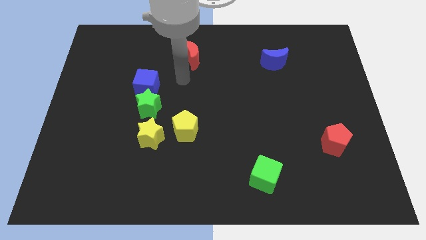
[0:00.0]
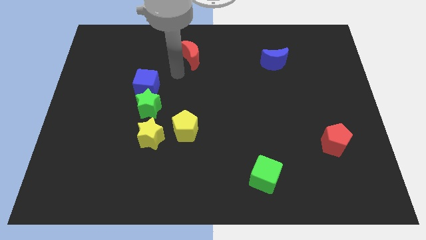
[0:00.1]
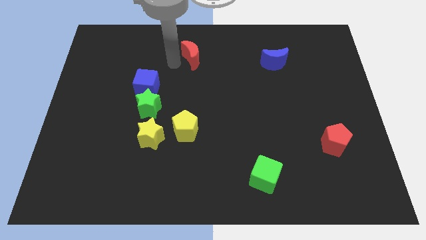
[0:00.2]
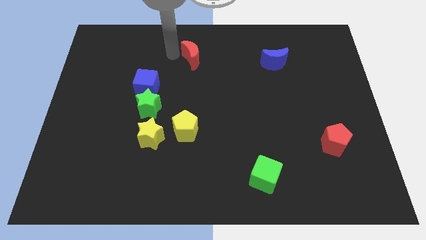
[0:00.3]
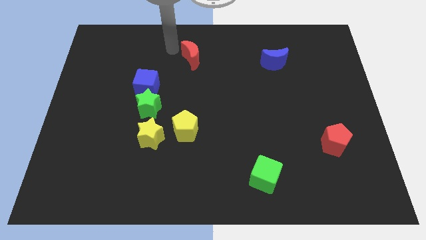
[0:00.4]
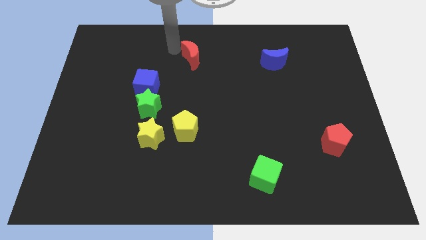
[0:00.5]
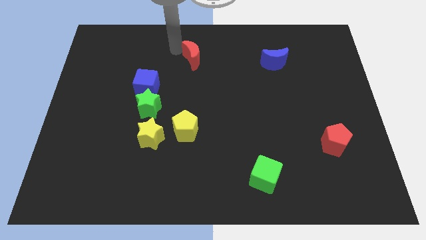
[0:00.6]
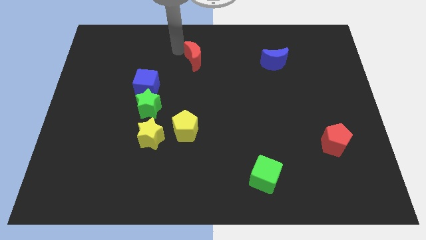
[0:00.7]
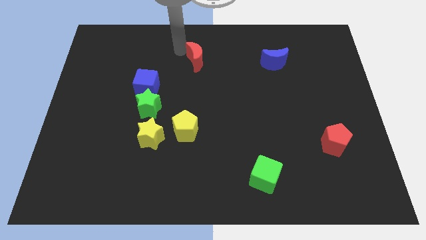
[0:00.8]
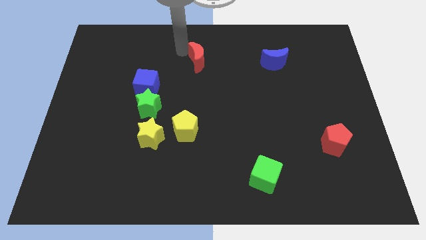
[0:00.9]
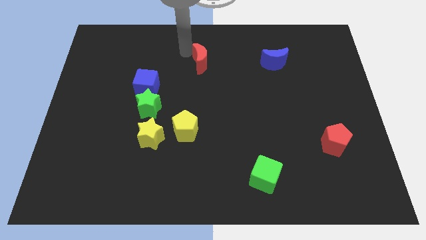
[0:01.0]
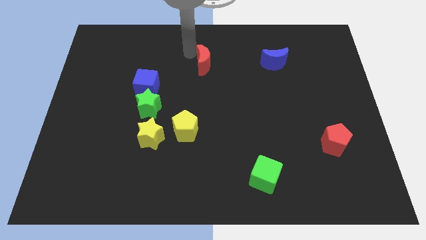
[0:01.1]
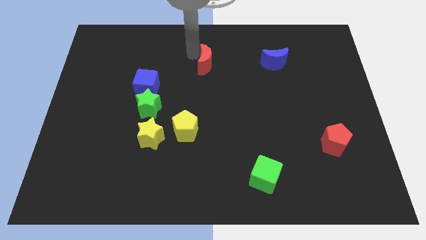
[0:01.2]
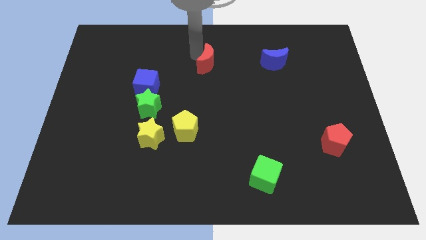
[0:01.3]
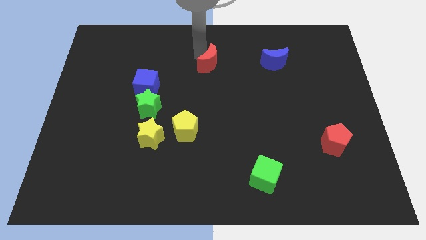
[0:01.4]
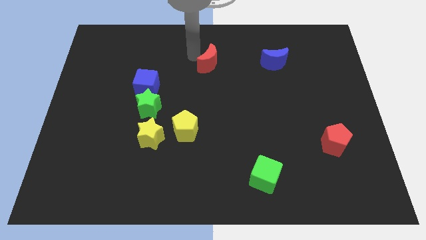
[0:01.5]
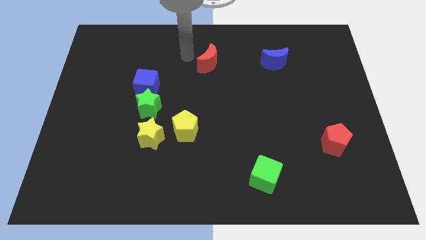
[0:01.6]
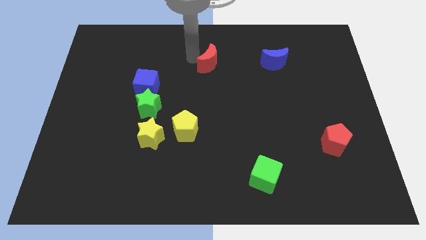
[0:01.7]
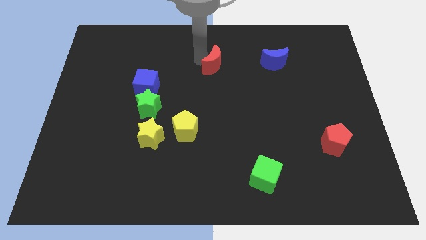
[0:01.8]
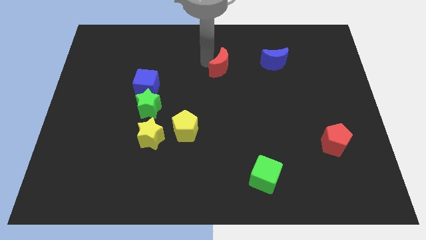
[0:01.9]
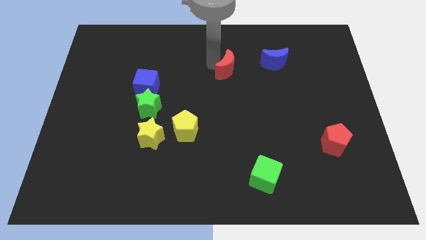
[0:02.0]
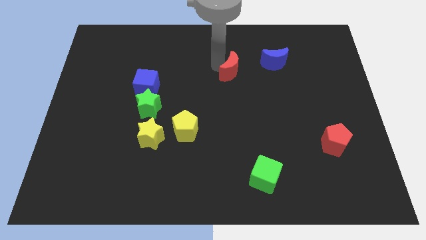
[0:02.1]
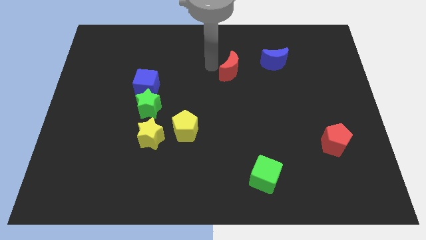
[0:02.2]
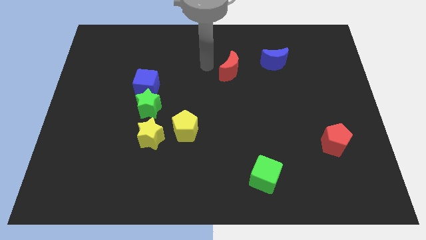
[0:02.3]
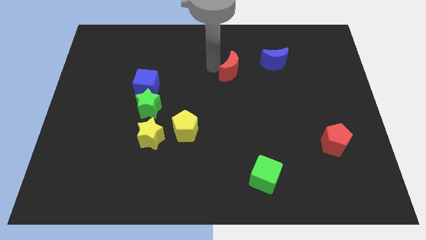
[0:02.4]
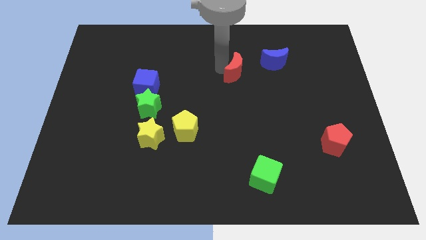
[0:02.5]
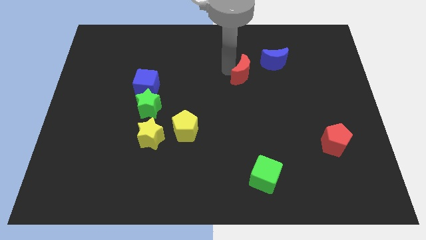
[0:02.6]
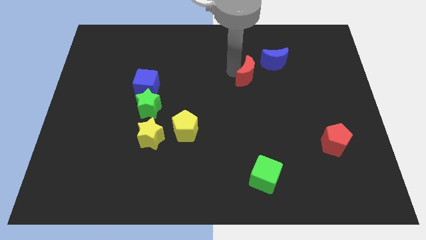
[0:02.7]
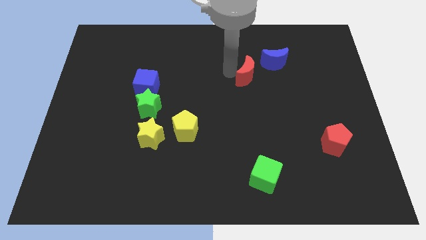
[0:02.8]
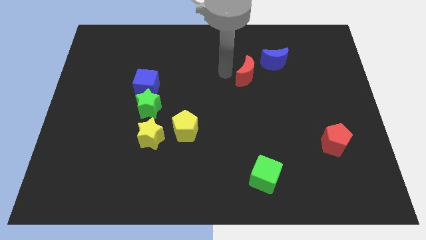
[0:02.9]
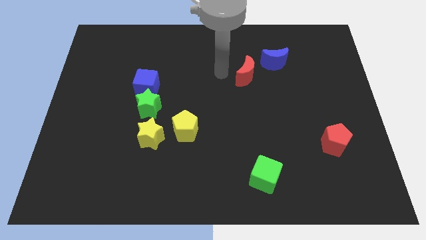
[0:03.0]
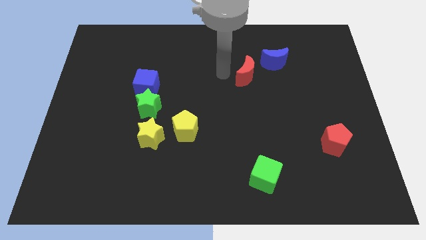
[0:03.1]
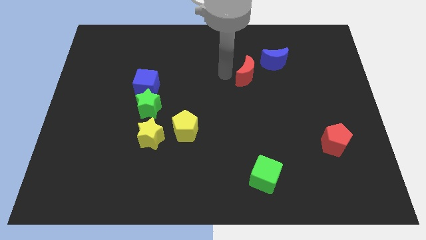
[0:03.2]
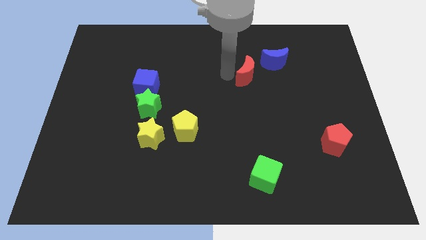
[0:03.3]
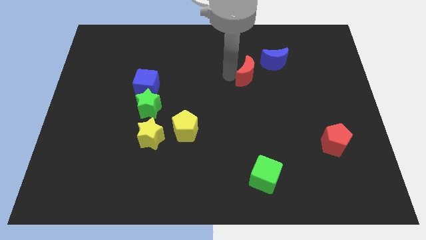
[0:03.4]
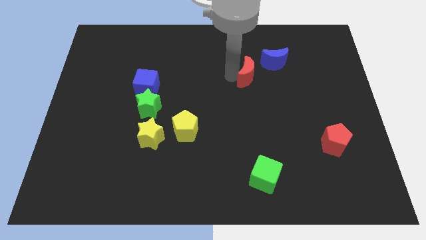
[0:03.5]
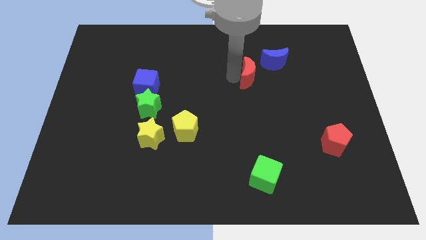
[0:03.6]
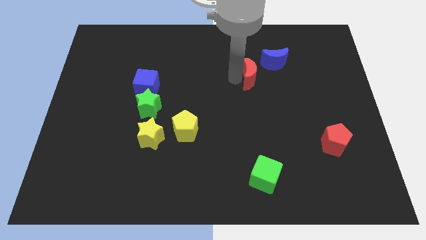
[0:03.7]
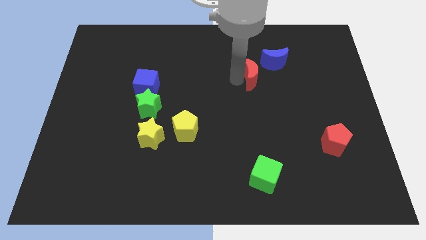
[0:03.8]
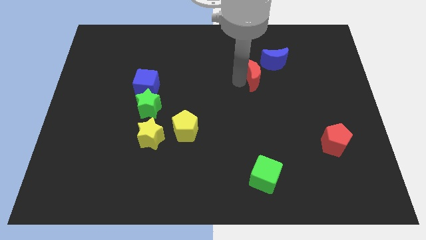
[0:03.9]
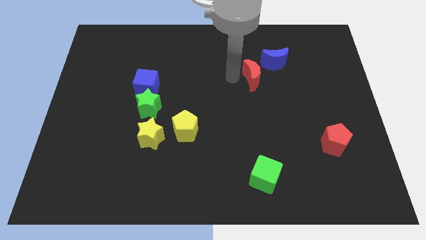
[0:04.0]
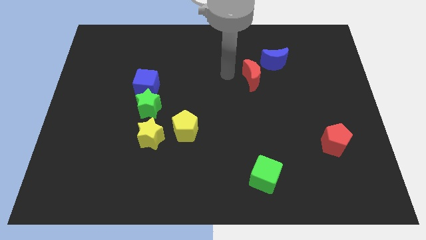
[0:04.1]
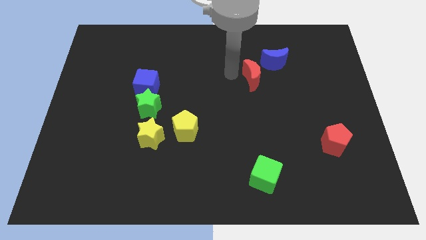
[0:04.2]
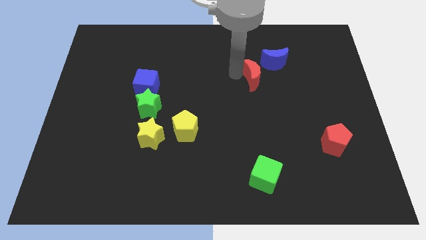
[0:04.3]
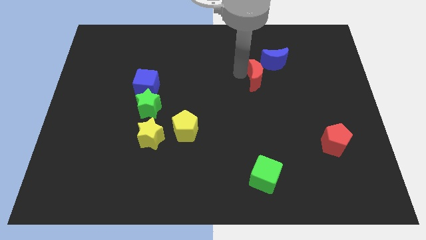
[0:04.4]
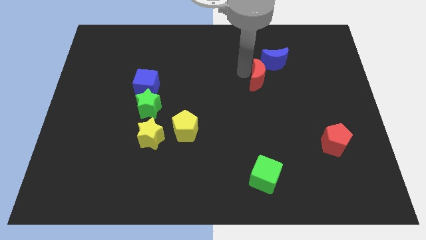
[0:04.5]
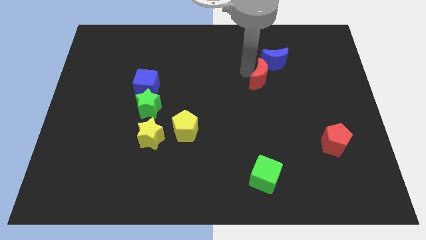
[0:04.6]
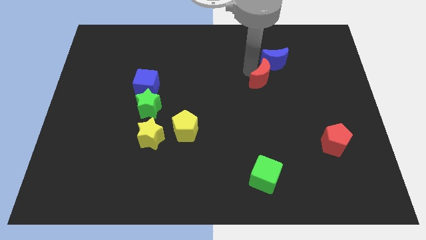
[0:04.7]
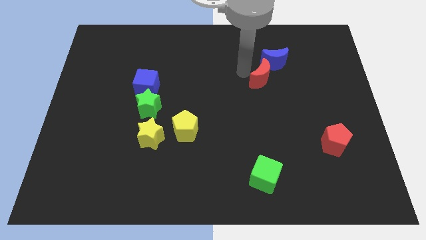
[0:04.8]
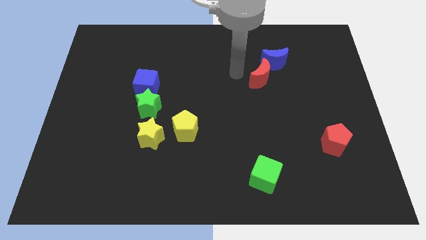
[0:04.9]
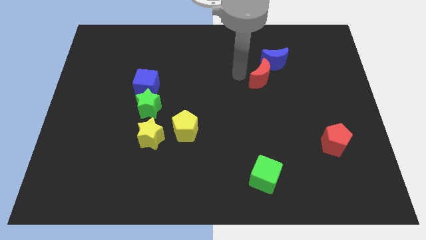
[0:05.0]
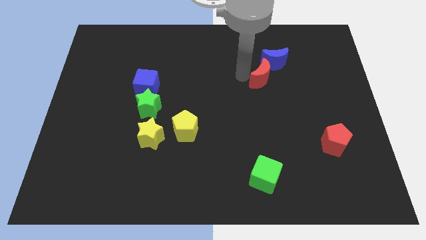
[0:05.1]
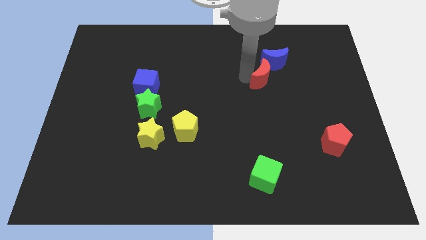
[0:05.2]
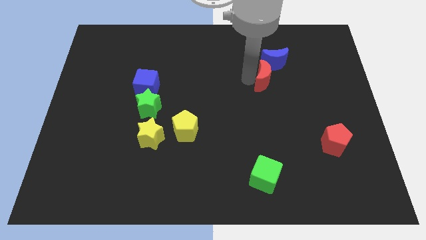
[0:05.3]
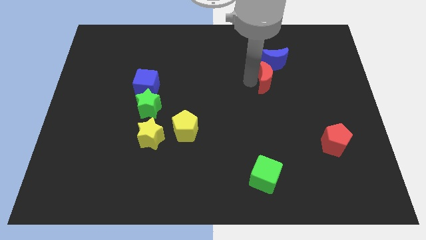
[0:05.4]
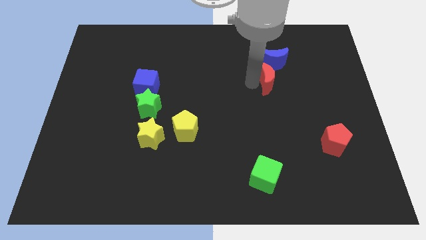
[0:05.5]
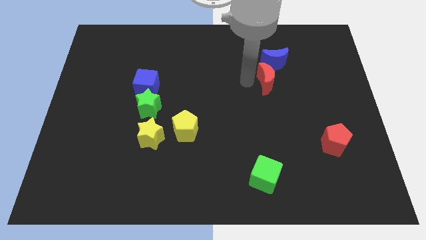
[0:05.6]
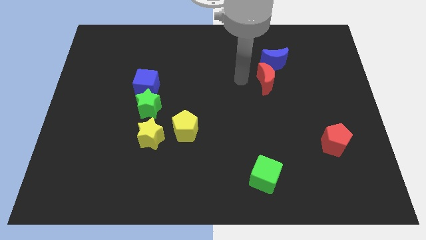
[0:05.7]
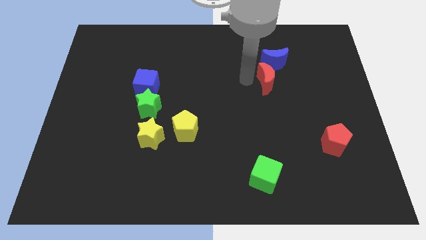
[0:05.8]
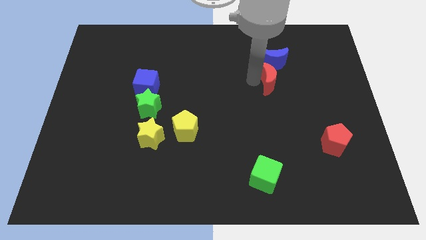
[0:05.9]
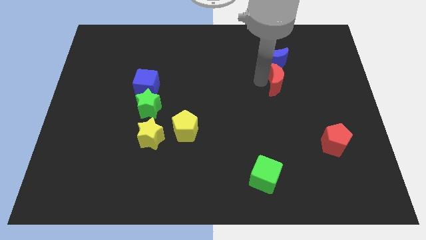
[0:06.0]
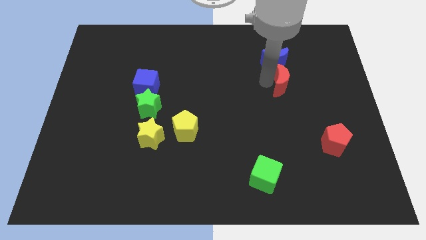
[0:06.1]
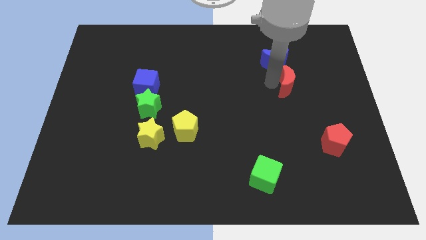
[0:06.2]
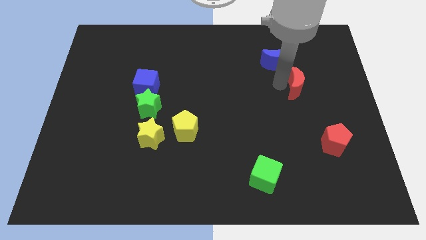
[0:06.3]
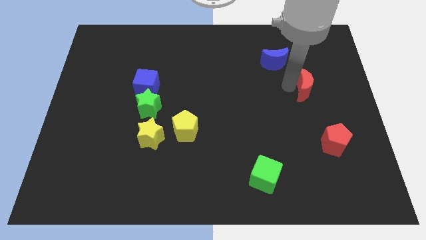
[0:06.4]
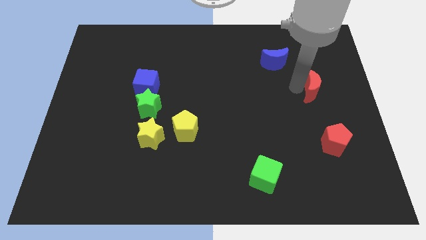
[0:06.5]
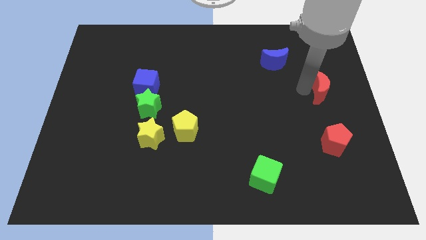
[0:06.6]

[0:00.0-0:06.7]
move the red moon to the right side of the board
